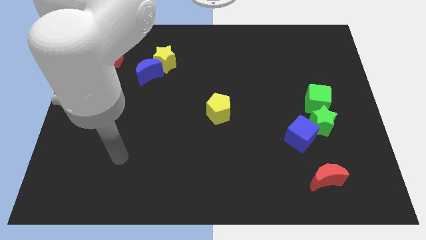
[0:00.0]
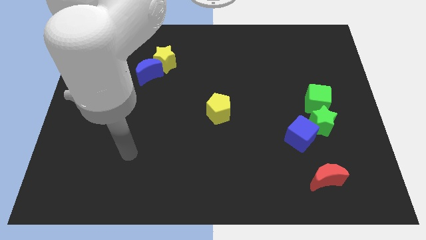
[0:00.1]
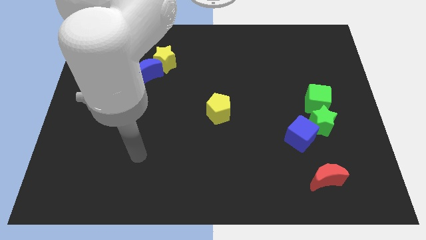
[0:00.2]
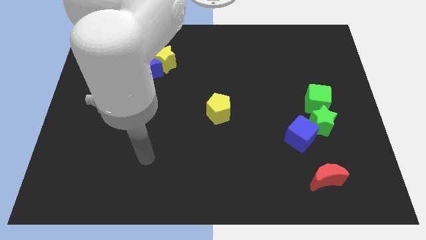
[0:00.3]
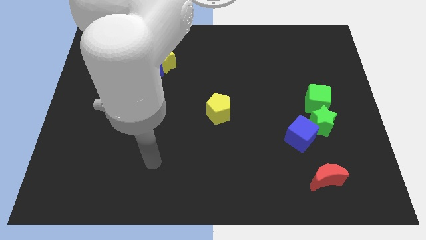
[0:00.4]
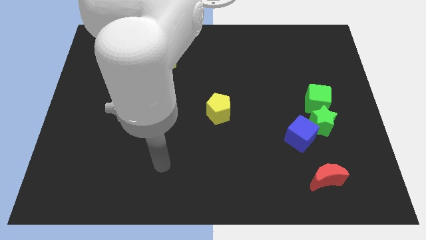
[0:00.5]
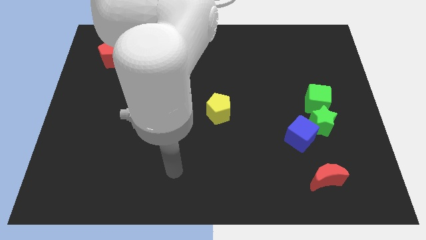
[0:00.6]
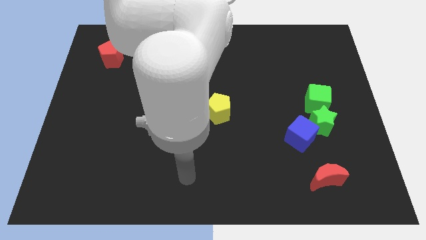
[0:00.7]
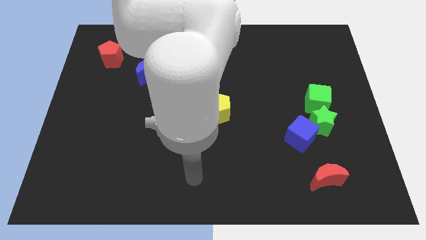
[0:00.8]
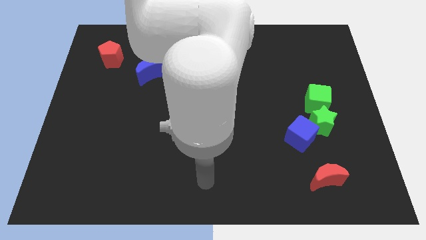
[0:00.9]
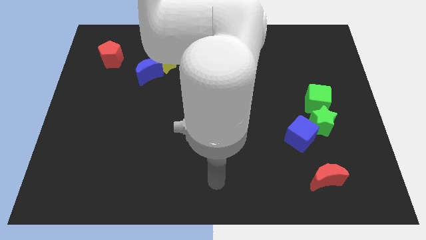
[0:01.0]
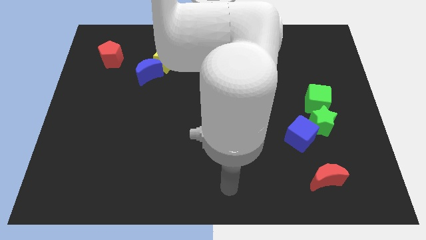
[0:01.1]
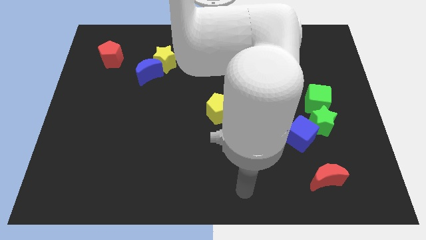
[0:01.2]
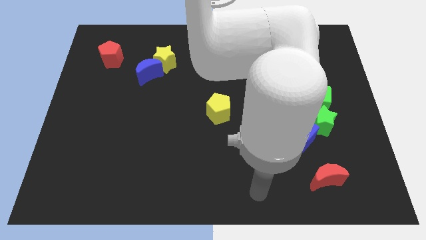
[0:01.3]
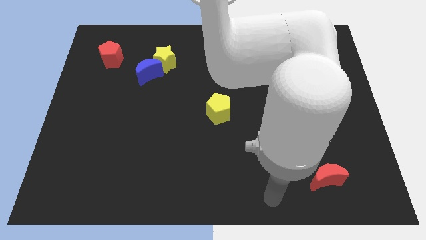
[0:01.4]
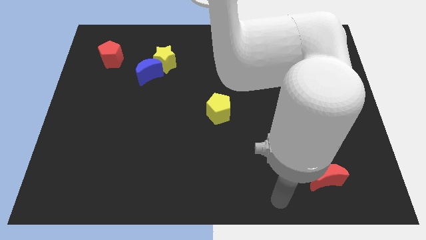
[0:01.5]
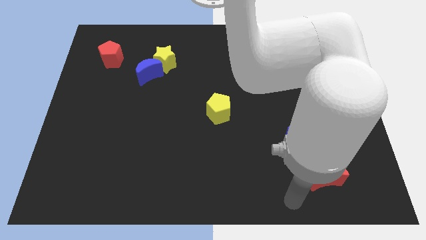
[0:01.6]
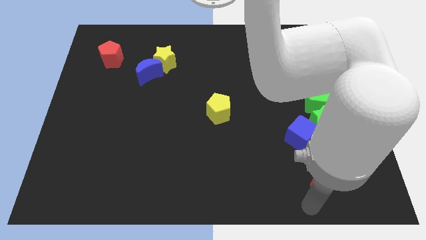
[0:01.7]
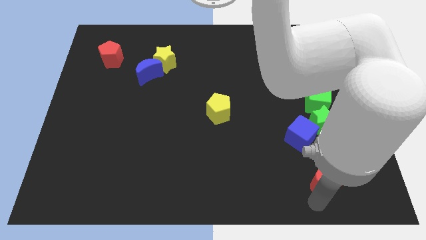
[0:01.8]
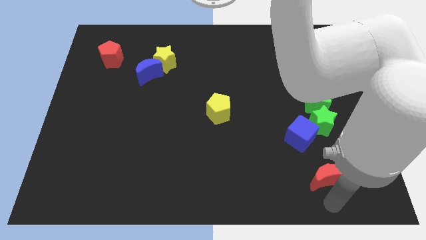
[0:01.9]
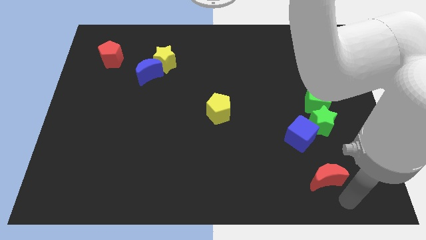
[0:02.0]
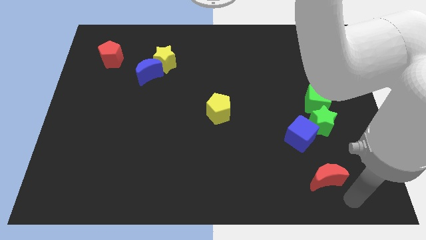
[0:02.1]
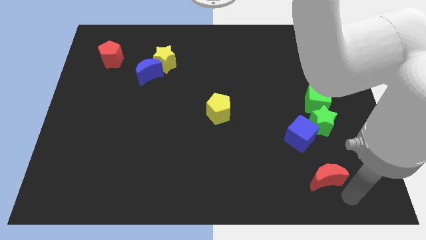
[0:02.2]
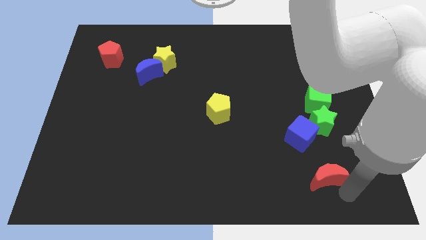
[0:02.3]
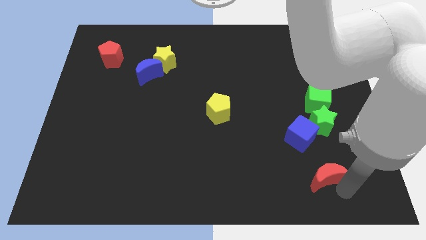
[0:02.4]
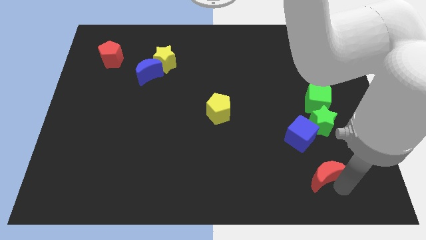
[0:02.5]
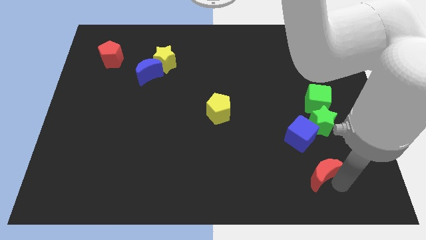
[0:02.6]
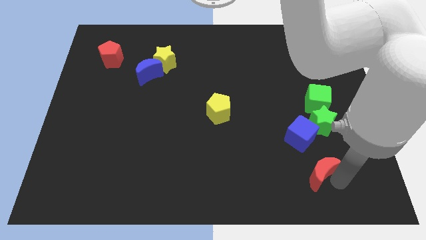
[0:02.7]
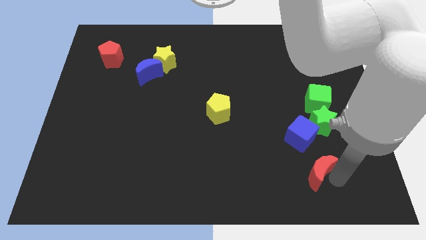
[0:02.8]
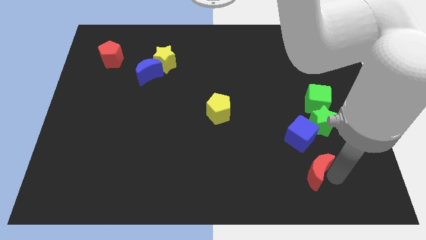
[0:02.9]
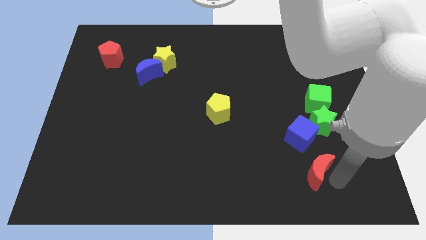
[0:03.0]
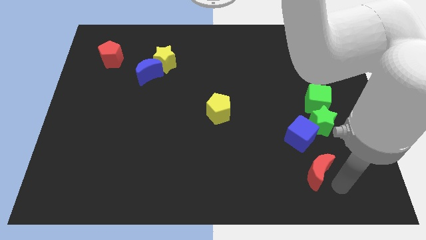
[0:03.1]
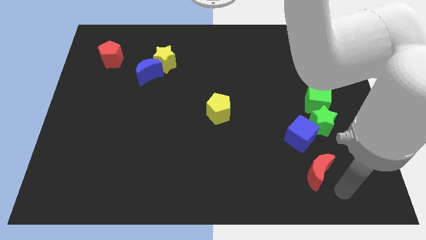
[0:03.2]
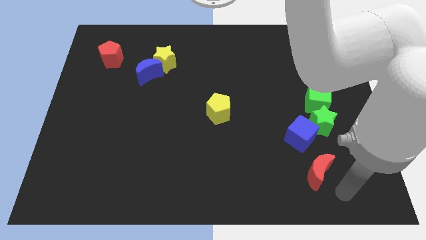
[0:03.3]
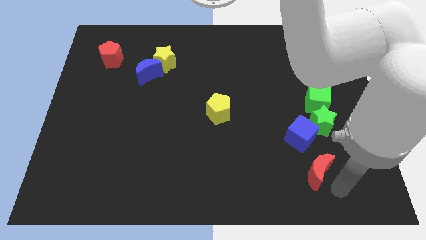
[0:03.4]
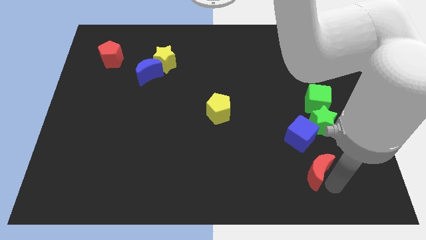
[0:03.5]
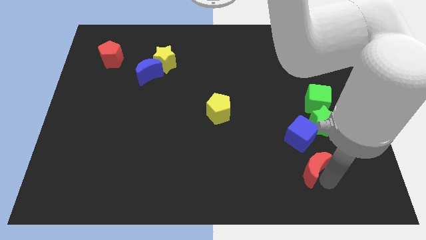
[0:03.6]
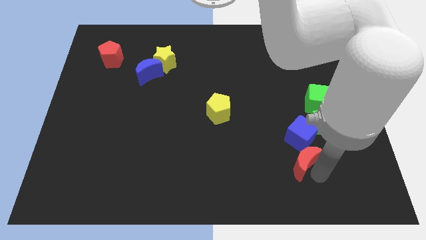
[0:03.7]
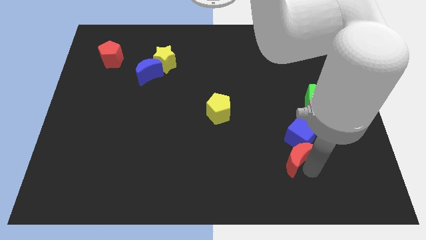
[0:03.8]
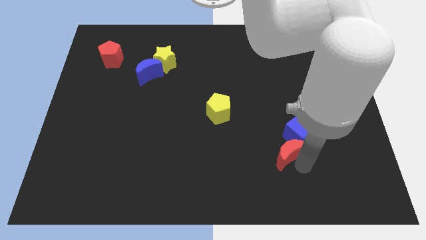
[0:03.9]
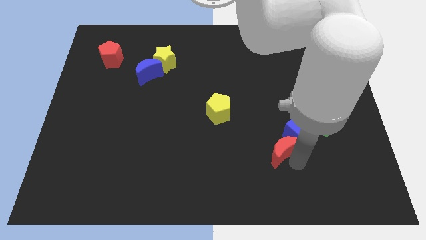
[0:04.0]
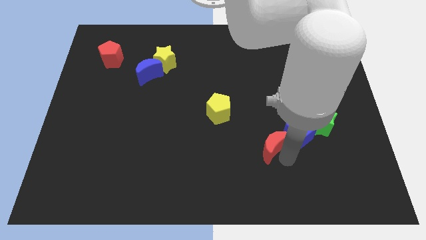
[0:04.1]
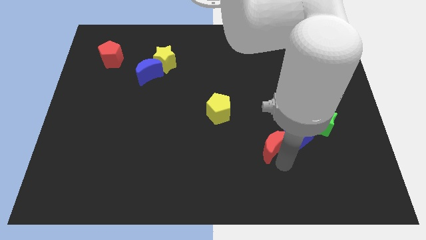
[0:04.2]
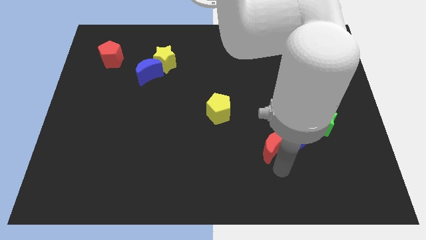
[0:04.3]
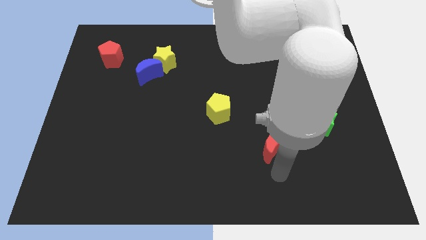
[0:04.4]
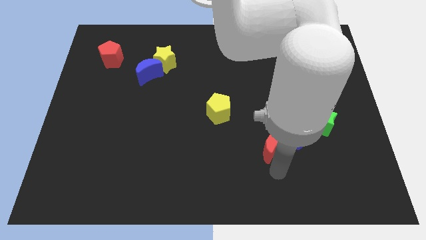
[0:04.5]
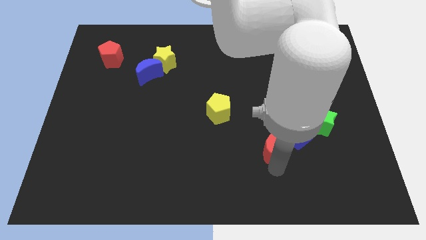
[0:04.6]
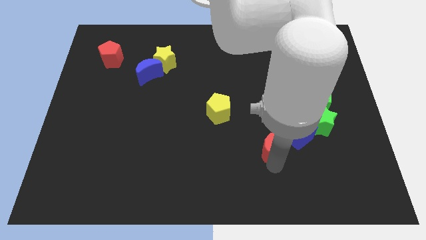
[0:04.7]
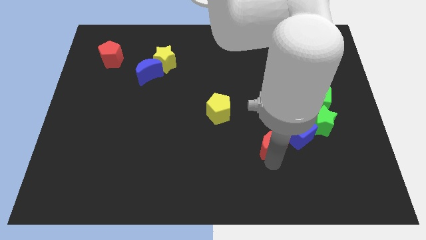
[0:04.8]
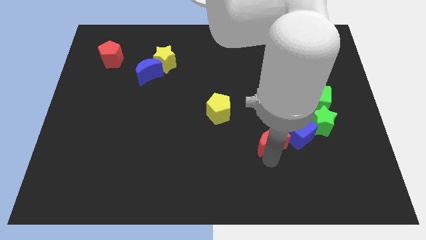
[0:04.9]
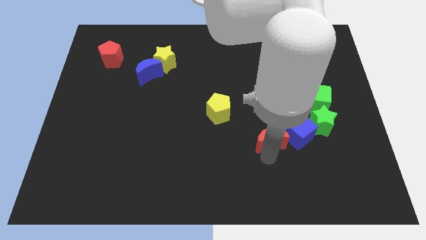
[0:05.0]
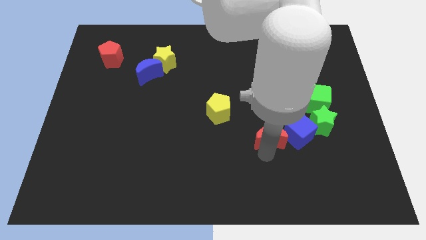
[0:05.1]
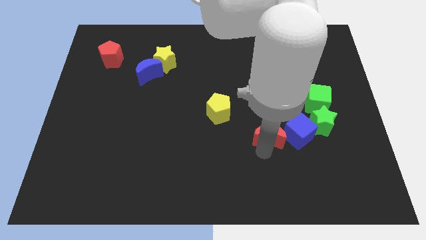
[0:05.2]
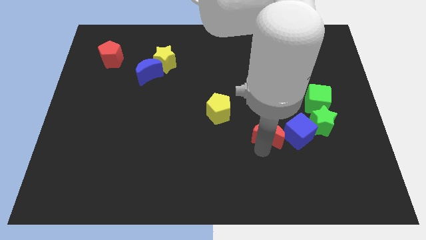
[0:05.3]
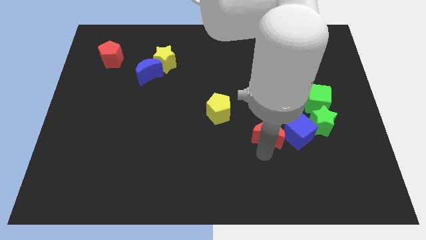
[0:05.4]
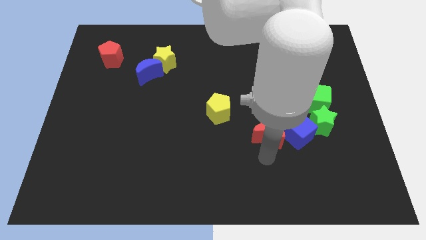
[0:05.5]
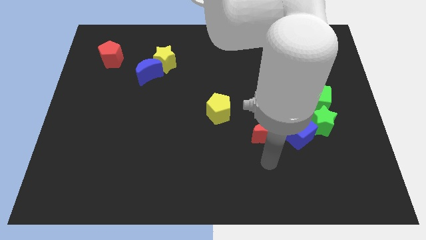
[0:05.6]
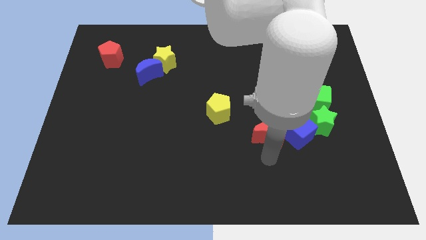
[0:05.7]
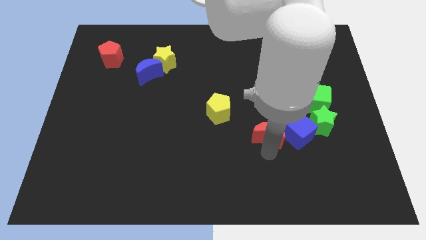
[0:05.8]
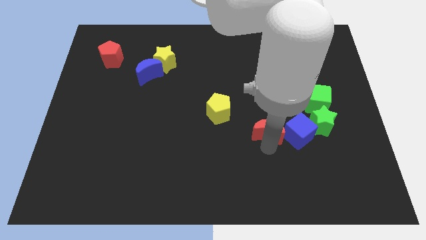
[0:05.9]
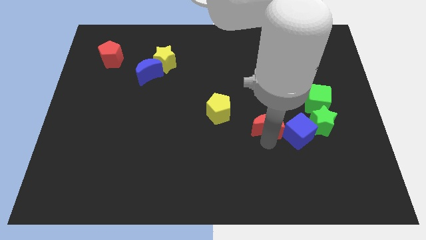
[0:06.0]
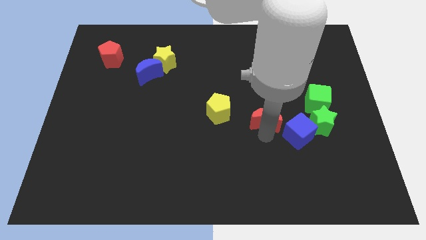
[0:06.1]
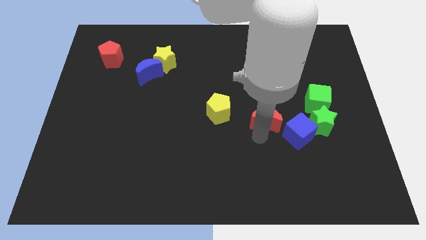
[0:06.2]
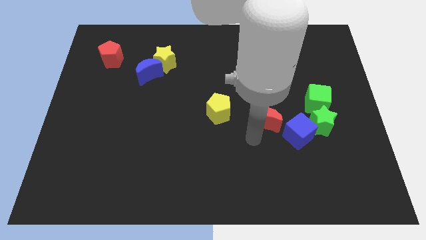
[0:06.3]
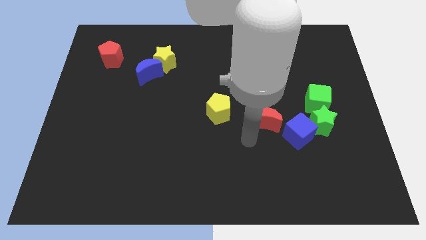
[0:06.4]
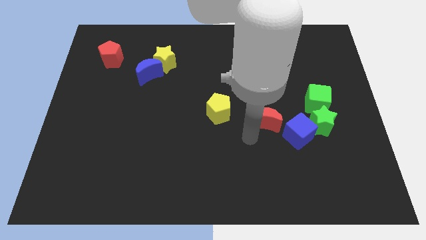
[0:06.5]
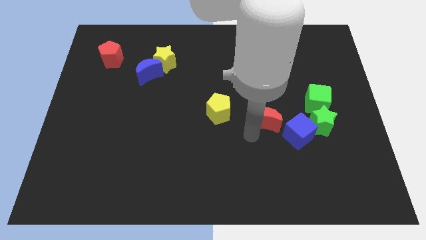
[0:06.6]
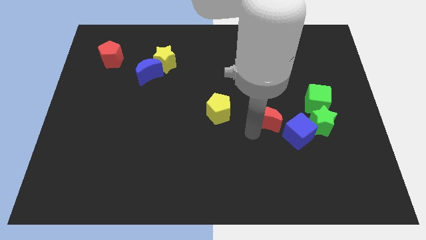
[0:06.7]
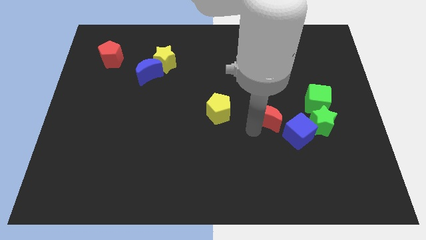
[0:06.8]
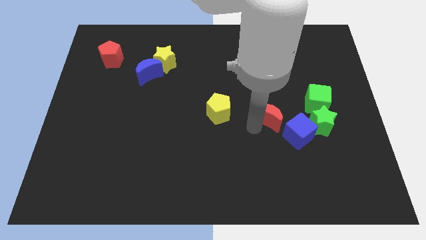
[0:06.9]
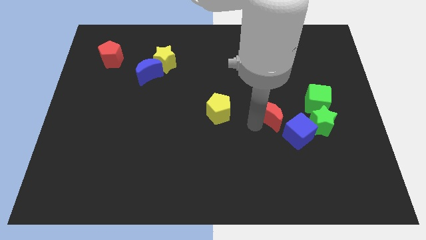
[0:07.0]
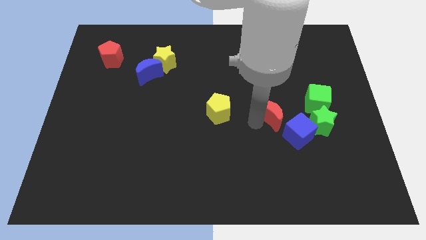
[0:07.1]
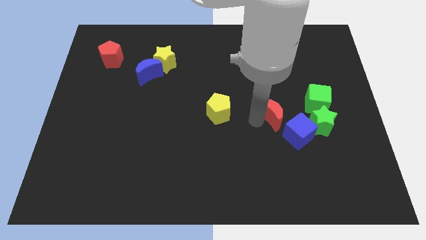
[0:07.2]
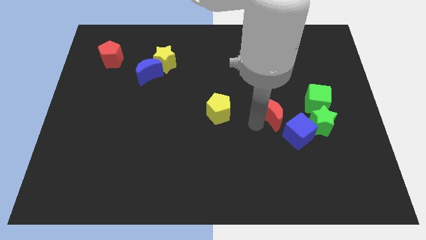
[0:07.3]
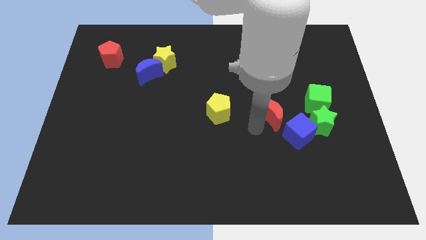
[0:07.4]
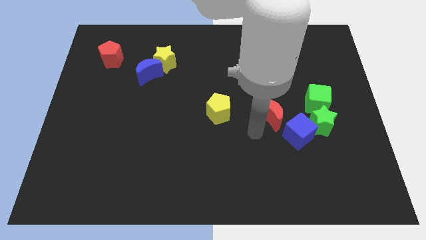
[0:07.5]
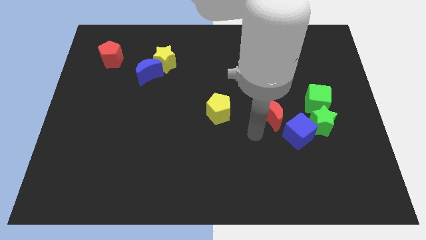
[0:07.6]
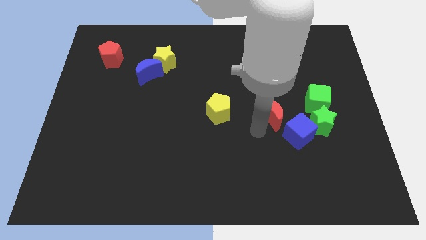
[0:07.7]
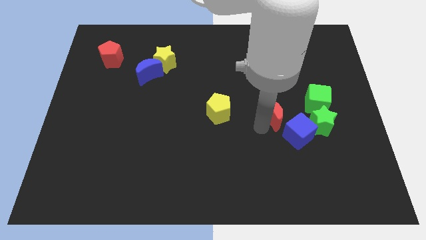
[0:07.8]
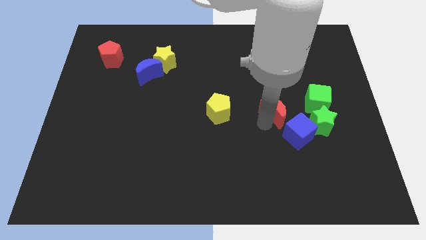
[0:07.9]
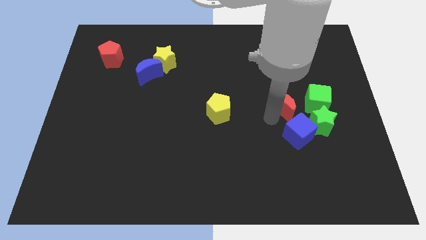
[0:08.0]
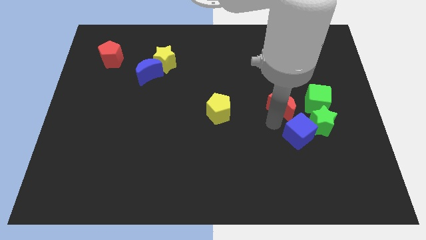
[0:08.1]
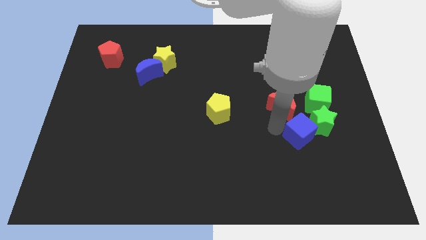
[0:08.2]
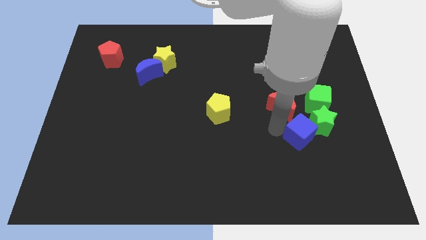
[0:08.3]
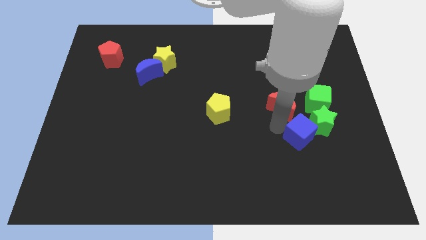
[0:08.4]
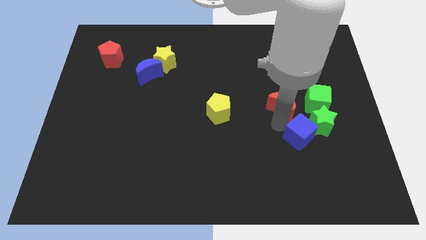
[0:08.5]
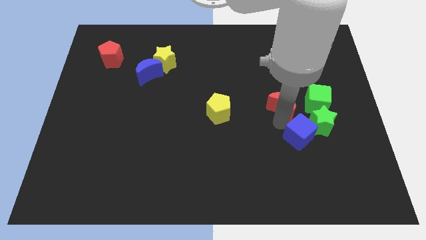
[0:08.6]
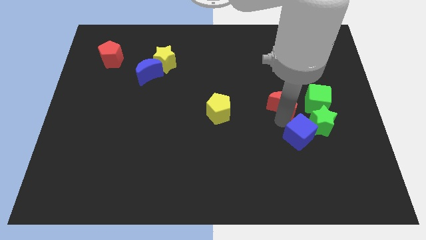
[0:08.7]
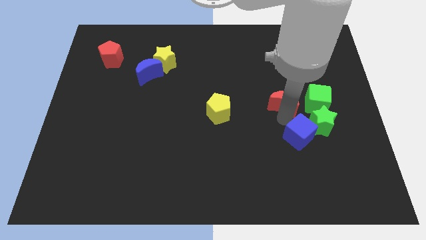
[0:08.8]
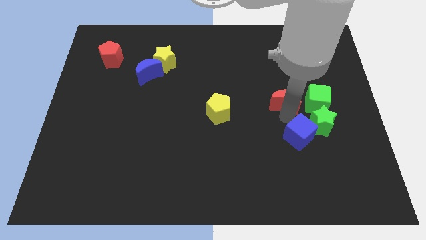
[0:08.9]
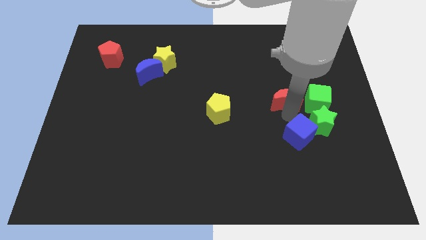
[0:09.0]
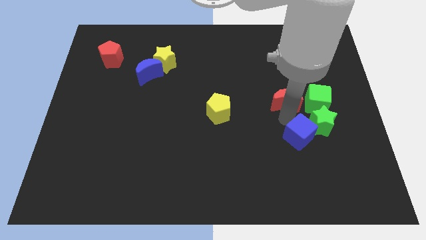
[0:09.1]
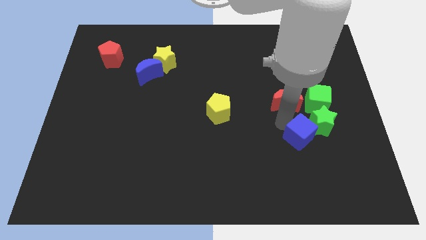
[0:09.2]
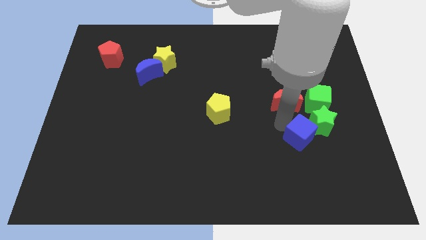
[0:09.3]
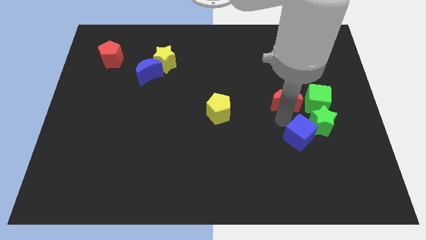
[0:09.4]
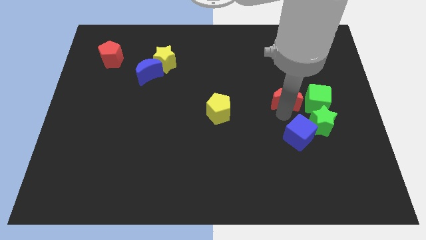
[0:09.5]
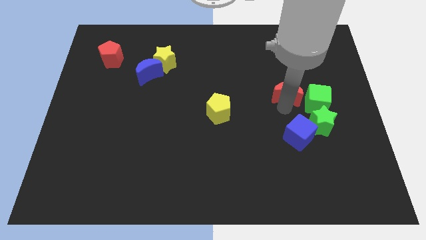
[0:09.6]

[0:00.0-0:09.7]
push the red moon upwards
